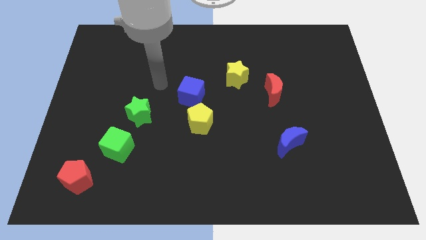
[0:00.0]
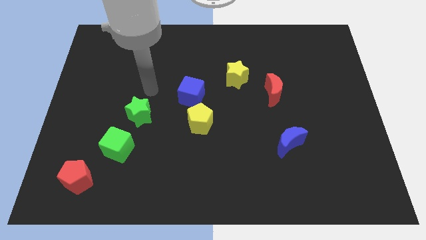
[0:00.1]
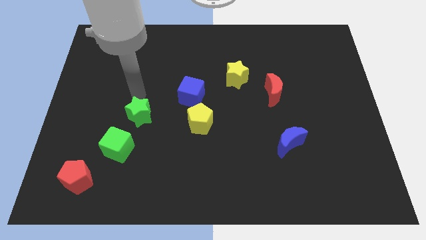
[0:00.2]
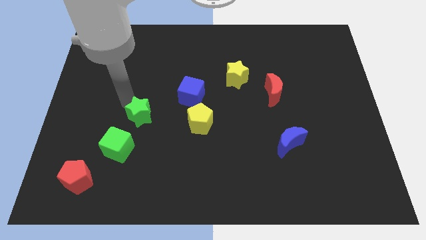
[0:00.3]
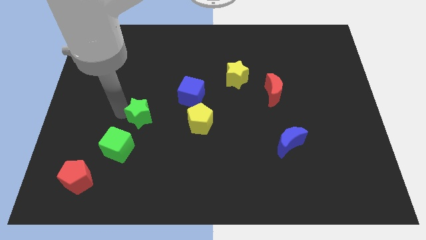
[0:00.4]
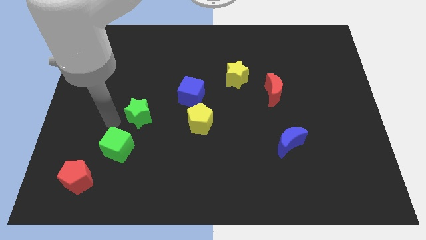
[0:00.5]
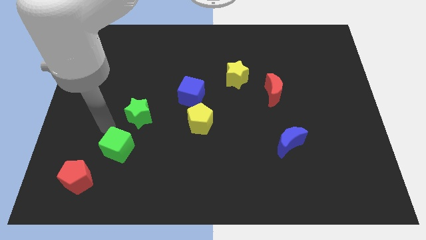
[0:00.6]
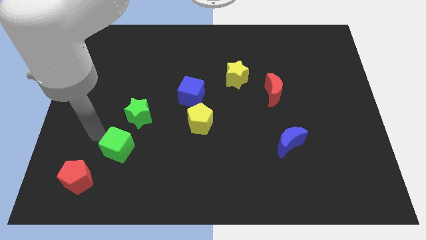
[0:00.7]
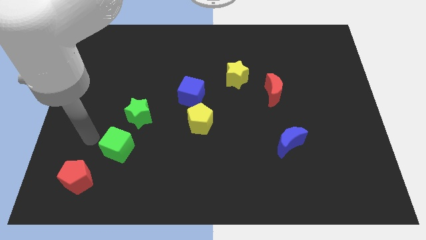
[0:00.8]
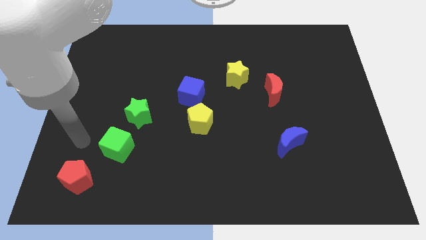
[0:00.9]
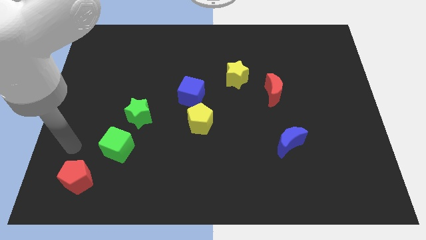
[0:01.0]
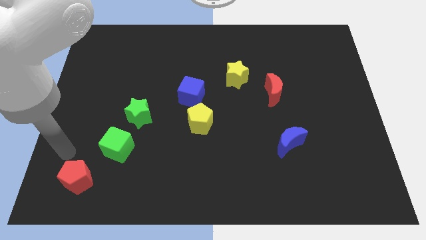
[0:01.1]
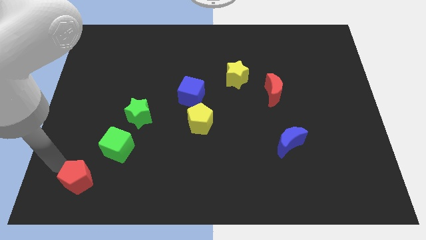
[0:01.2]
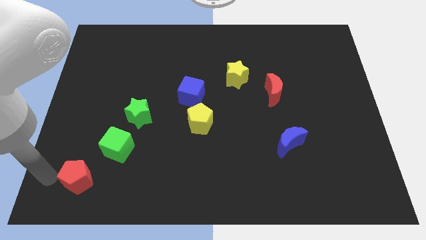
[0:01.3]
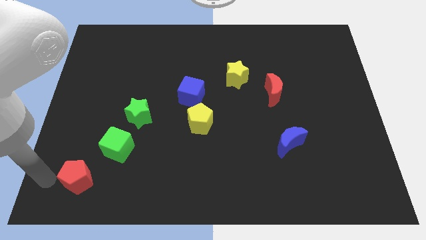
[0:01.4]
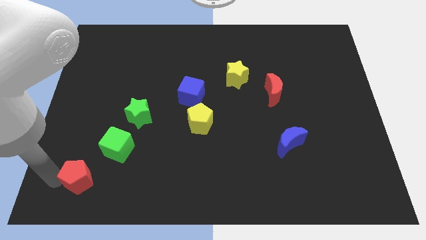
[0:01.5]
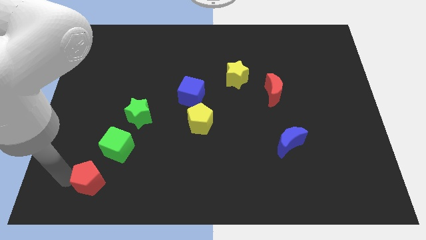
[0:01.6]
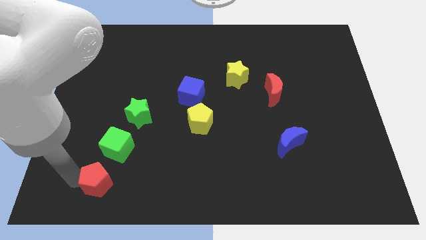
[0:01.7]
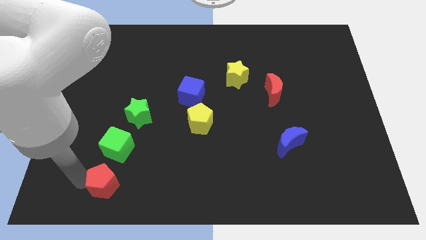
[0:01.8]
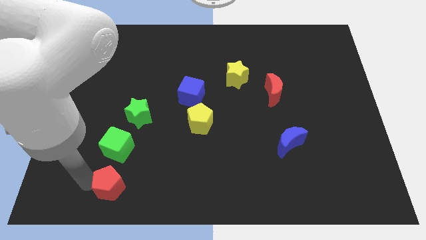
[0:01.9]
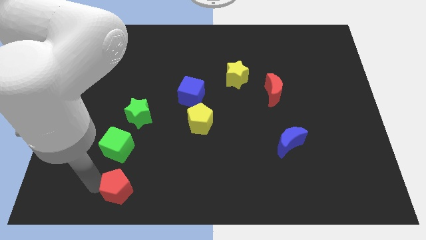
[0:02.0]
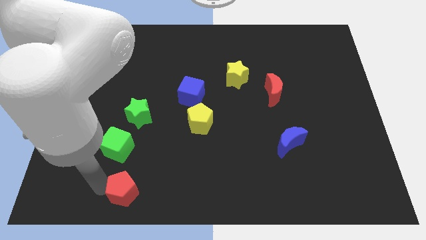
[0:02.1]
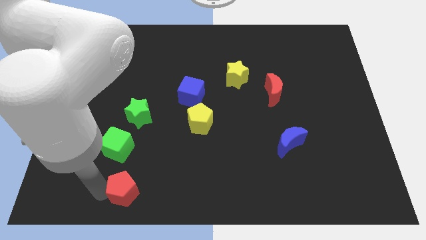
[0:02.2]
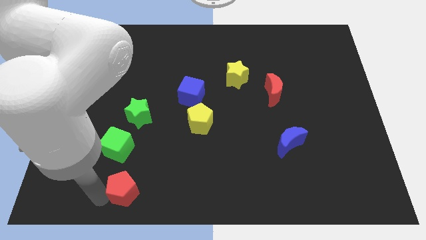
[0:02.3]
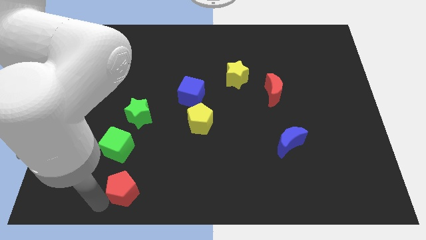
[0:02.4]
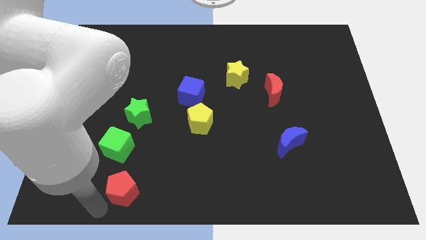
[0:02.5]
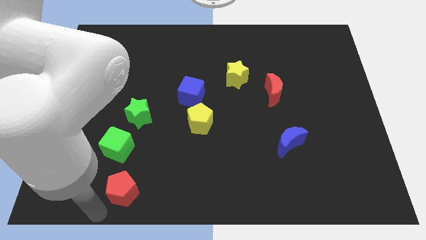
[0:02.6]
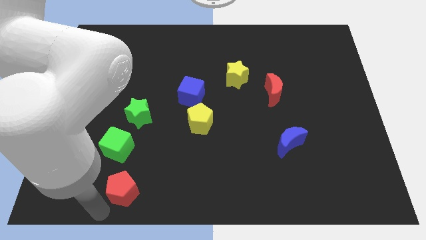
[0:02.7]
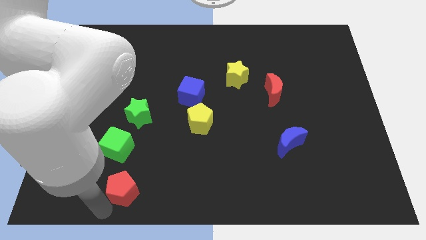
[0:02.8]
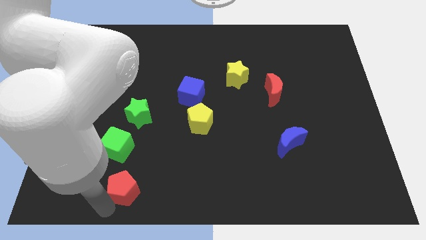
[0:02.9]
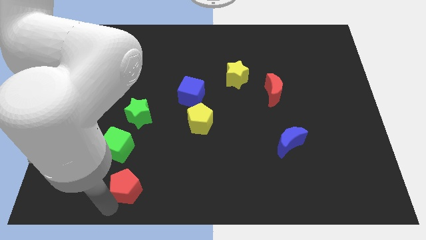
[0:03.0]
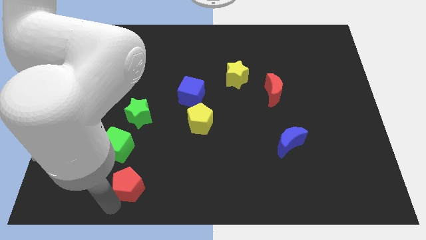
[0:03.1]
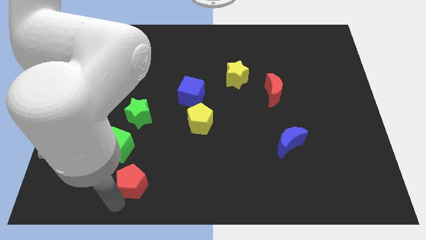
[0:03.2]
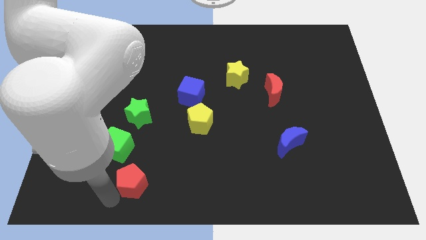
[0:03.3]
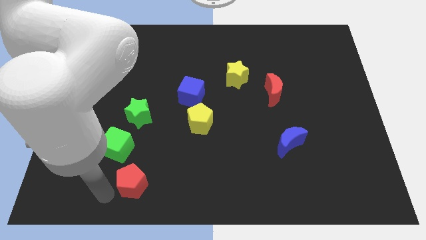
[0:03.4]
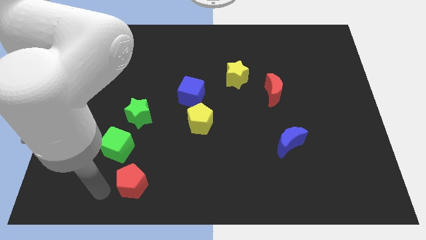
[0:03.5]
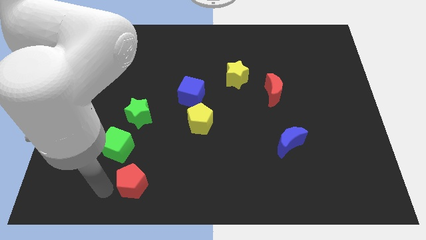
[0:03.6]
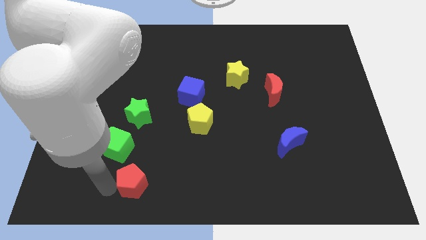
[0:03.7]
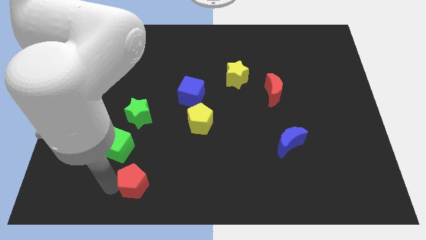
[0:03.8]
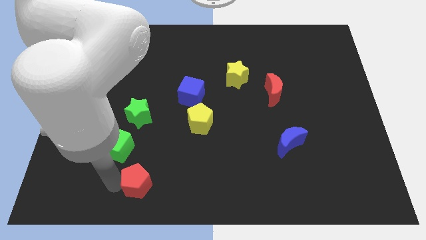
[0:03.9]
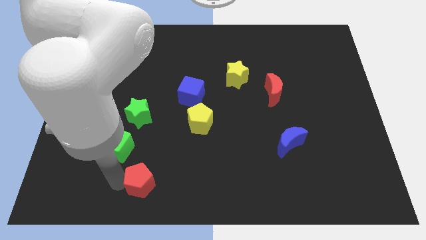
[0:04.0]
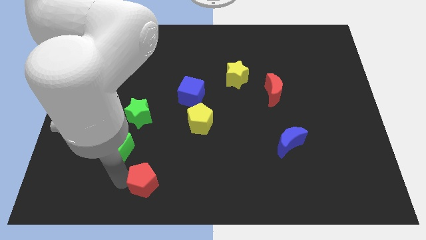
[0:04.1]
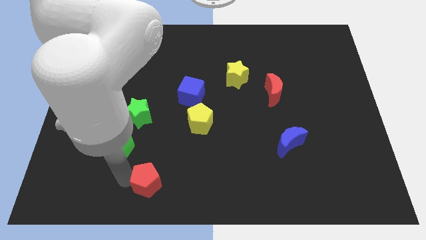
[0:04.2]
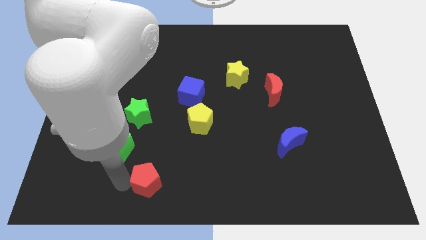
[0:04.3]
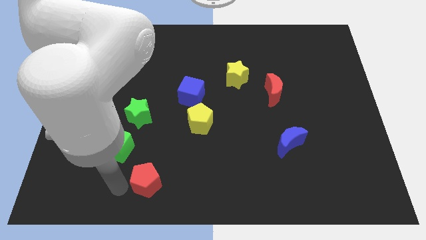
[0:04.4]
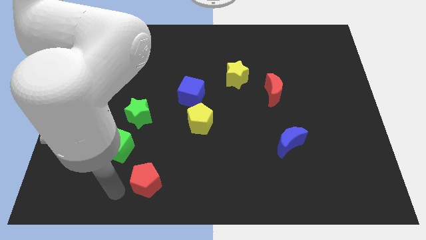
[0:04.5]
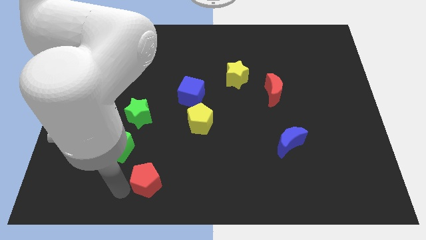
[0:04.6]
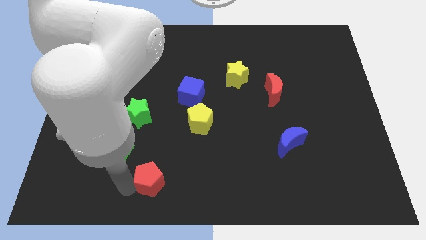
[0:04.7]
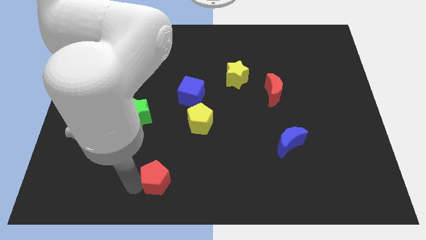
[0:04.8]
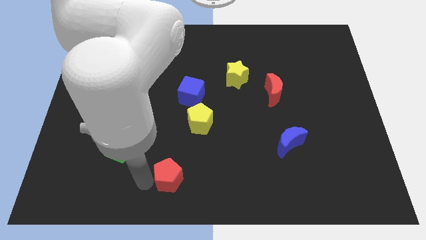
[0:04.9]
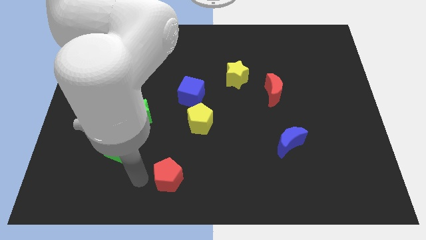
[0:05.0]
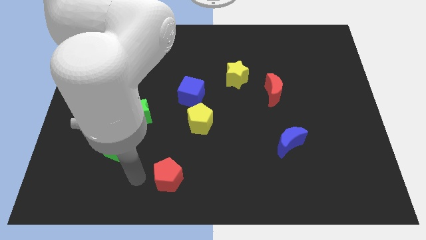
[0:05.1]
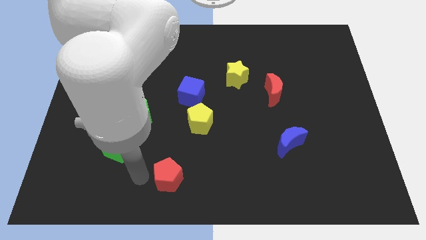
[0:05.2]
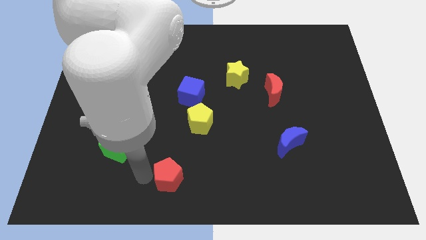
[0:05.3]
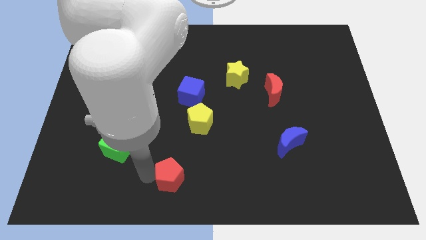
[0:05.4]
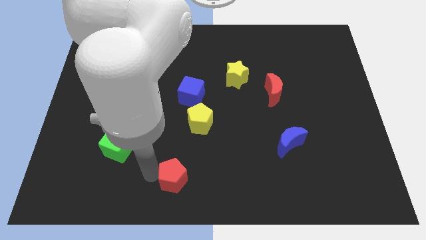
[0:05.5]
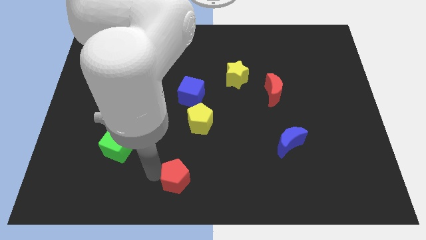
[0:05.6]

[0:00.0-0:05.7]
push the red pentagon to the right

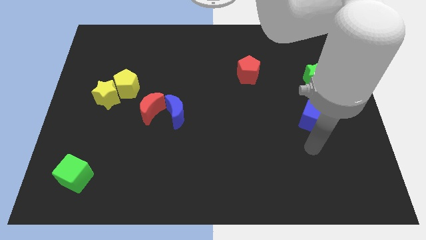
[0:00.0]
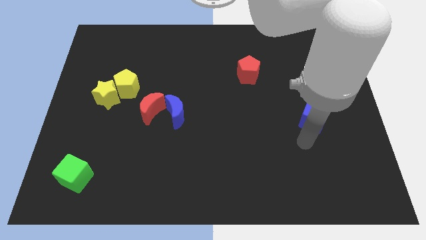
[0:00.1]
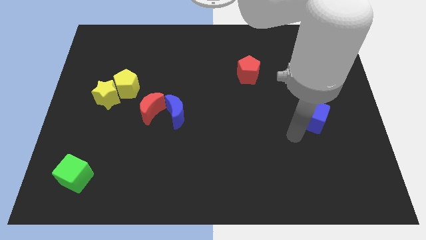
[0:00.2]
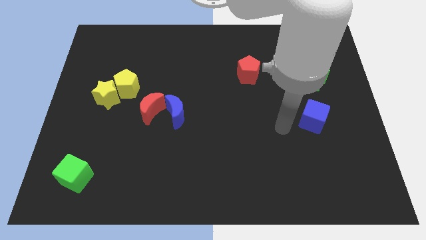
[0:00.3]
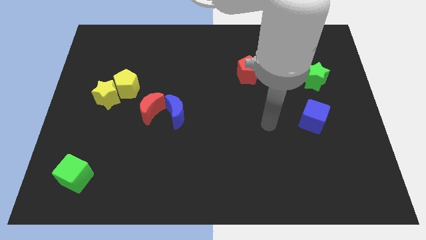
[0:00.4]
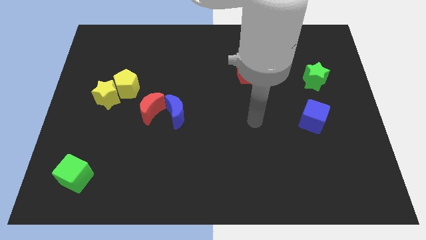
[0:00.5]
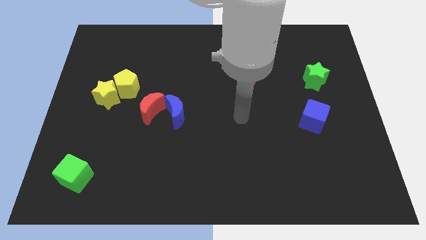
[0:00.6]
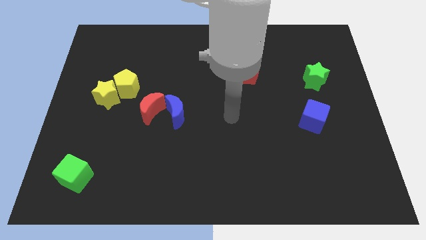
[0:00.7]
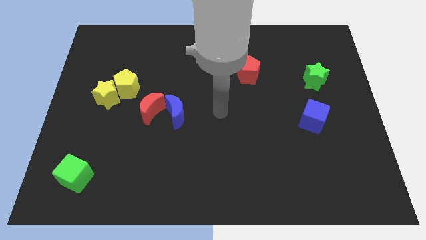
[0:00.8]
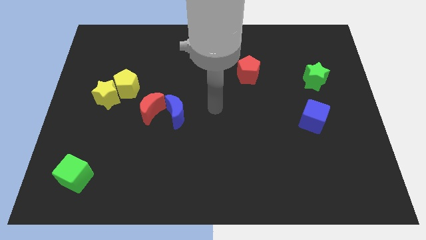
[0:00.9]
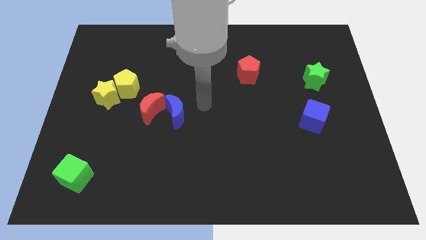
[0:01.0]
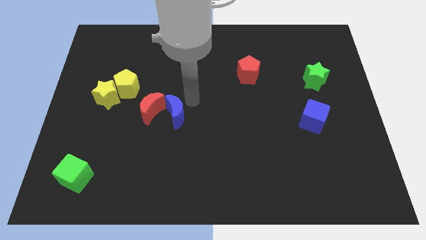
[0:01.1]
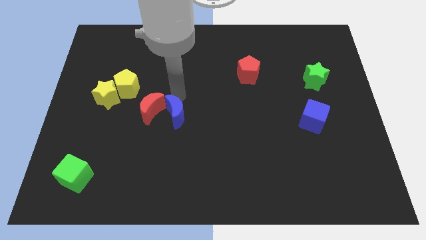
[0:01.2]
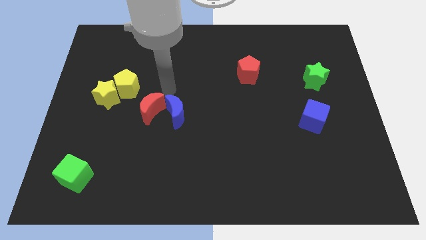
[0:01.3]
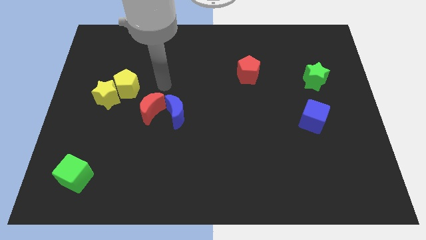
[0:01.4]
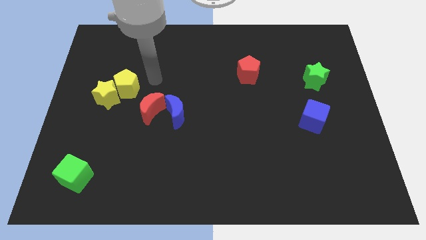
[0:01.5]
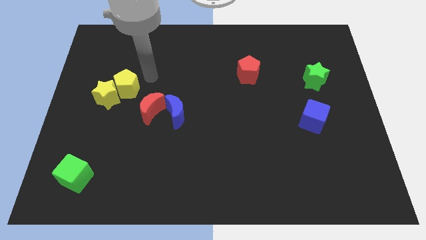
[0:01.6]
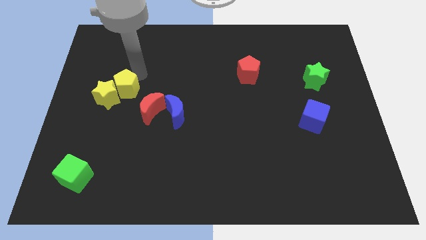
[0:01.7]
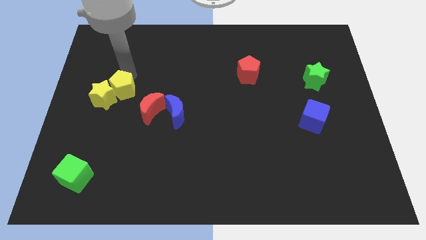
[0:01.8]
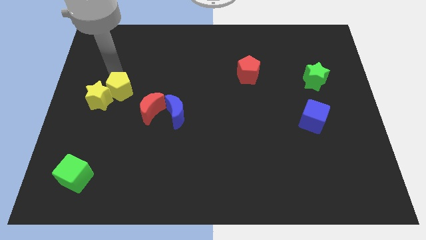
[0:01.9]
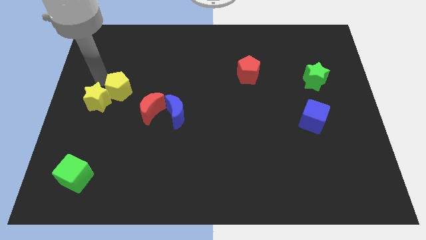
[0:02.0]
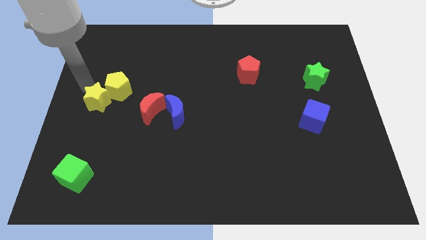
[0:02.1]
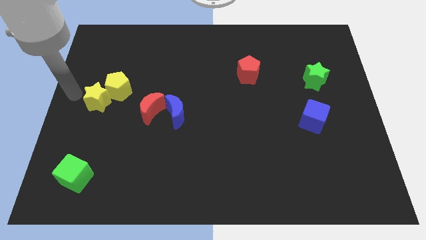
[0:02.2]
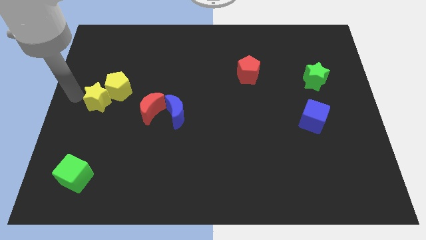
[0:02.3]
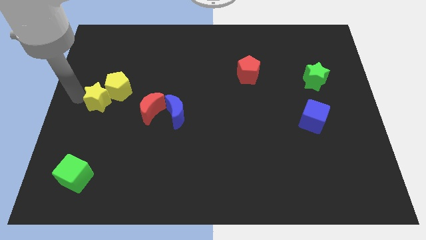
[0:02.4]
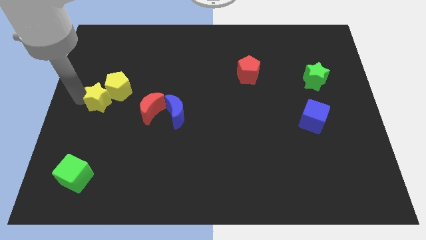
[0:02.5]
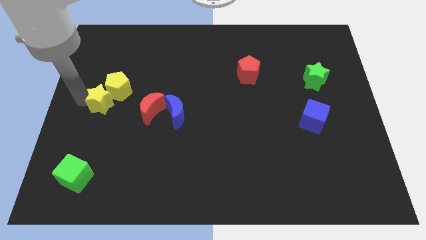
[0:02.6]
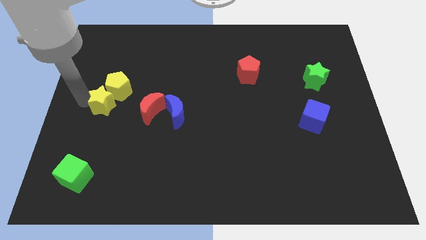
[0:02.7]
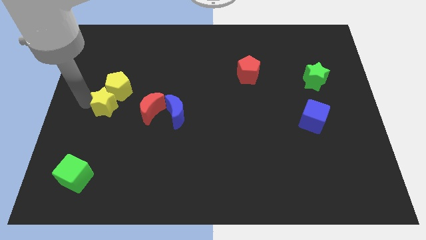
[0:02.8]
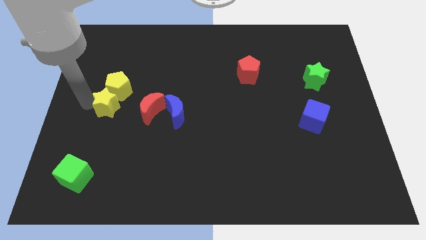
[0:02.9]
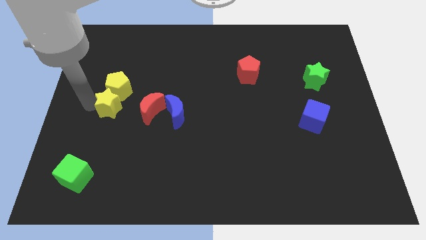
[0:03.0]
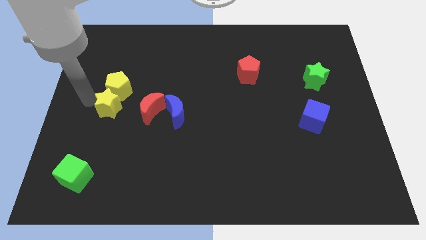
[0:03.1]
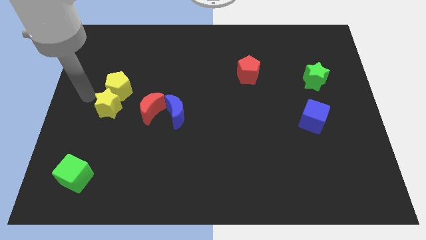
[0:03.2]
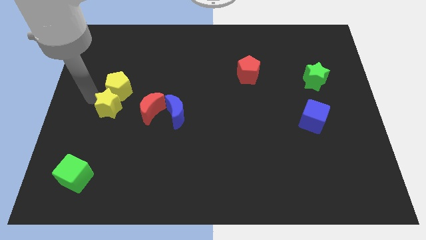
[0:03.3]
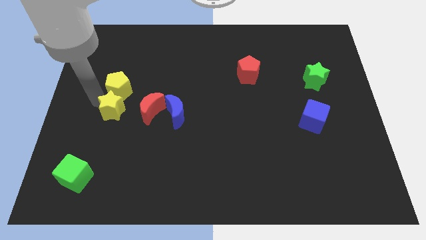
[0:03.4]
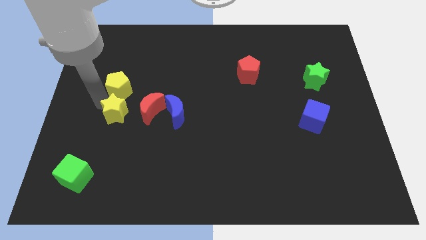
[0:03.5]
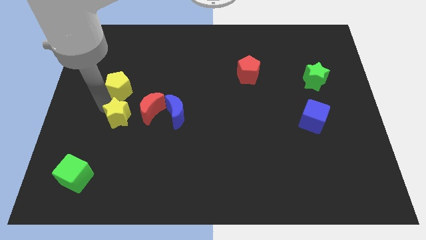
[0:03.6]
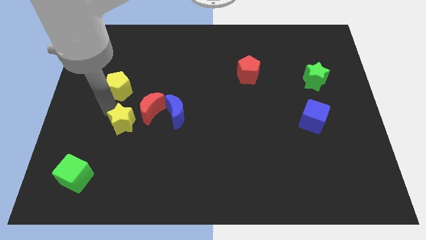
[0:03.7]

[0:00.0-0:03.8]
slide the yellow star a little downwards and then right
